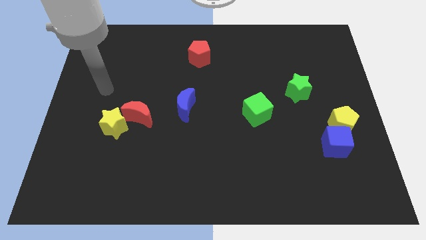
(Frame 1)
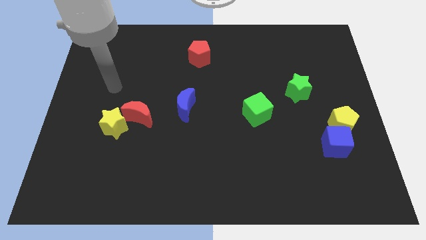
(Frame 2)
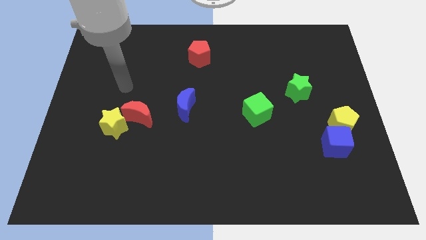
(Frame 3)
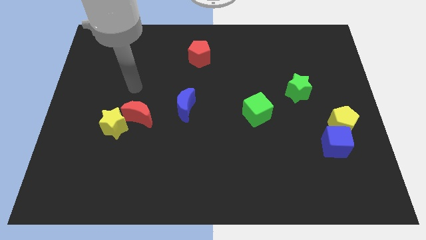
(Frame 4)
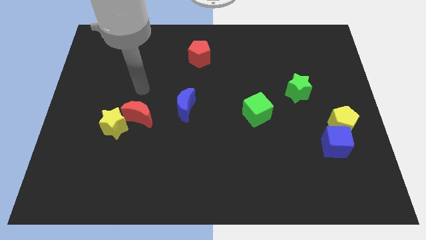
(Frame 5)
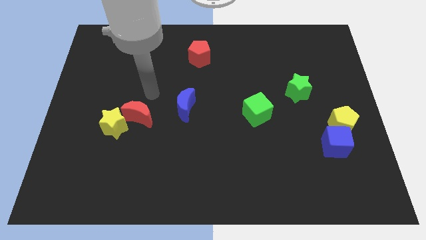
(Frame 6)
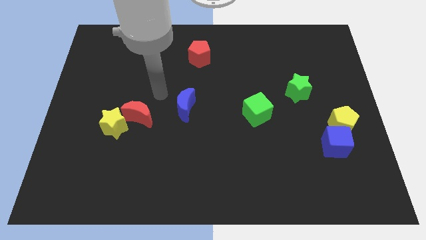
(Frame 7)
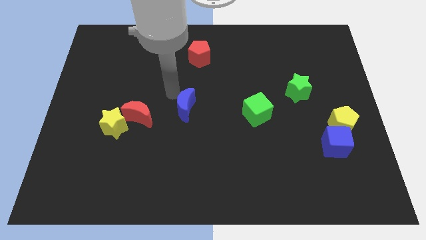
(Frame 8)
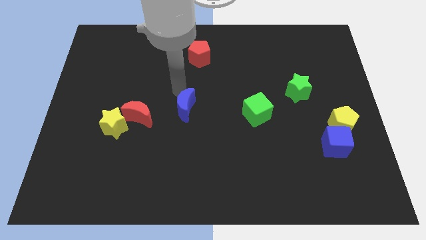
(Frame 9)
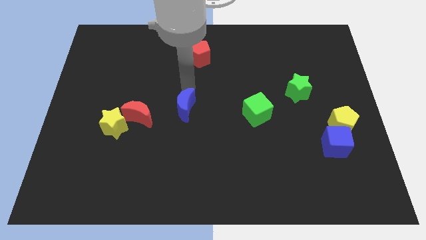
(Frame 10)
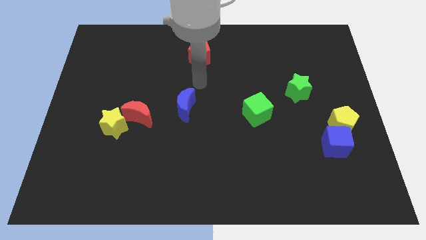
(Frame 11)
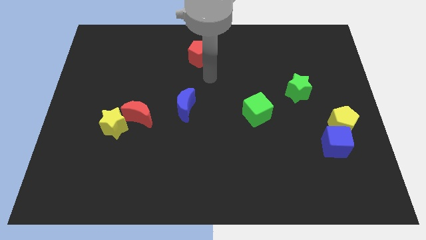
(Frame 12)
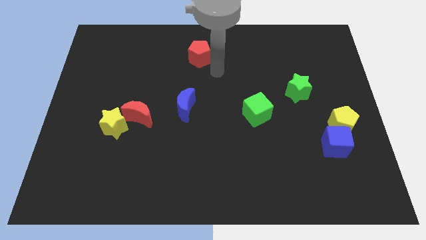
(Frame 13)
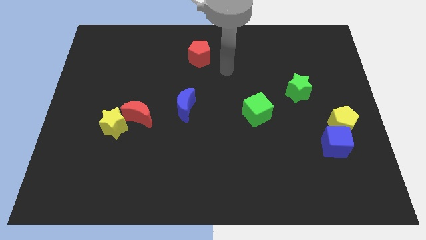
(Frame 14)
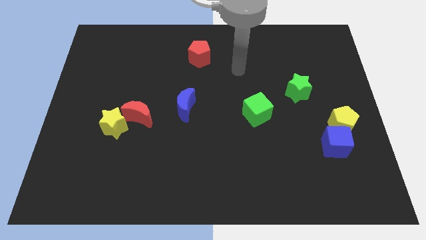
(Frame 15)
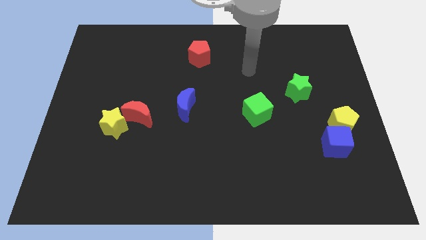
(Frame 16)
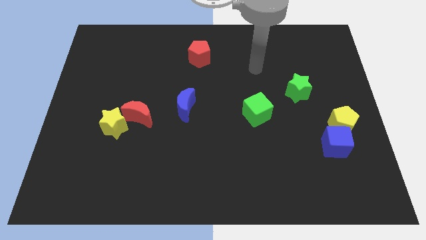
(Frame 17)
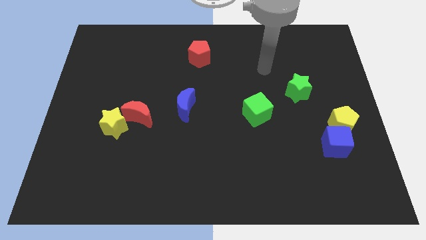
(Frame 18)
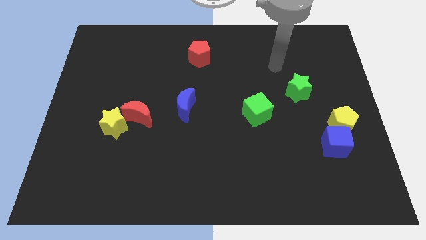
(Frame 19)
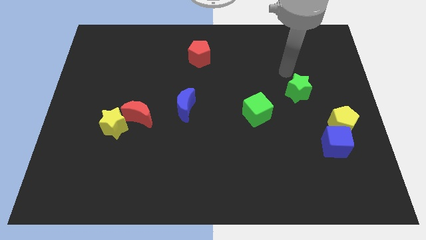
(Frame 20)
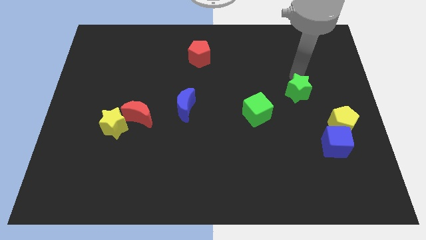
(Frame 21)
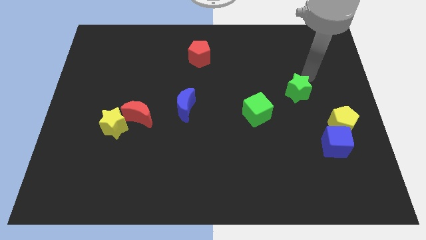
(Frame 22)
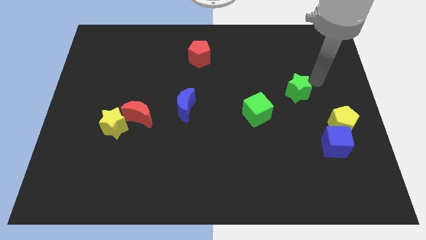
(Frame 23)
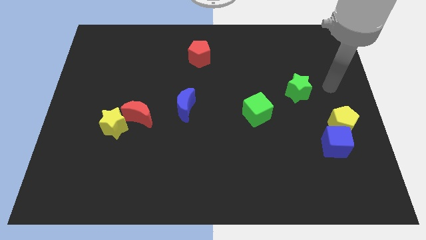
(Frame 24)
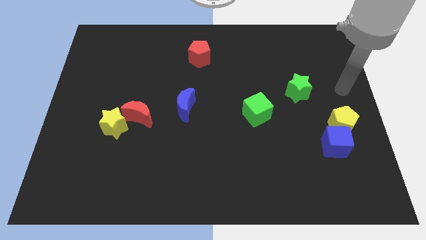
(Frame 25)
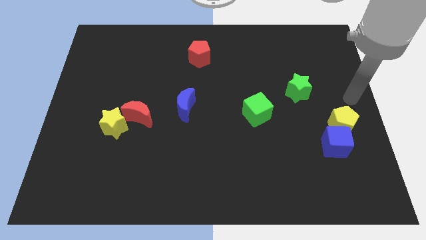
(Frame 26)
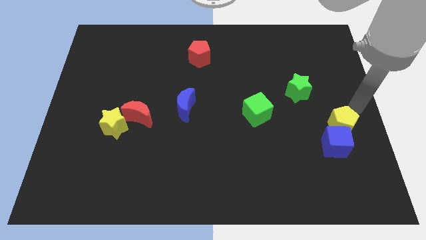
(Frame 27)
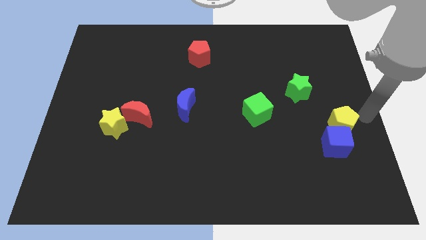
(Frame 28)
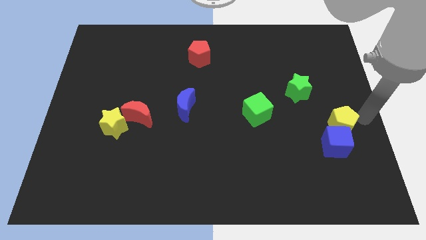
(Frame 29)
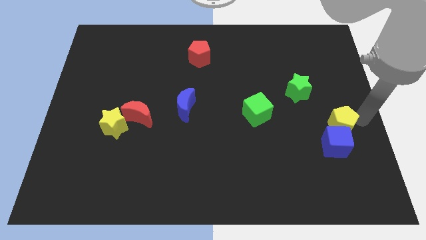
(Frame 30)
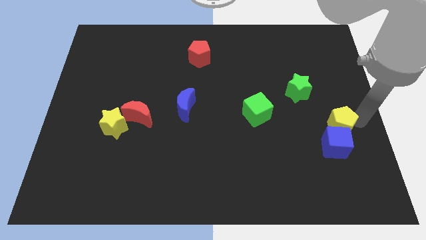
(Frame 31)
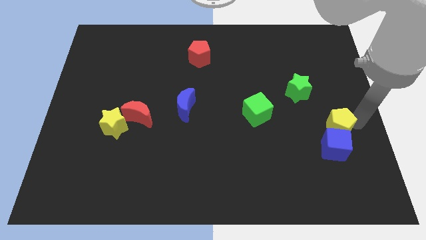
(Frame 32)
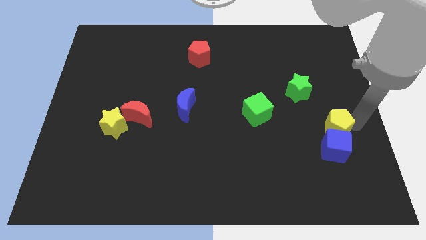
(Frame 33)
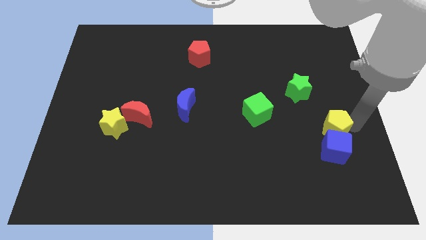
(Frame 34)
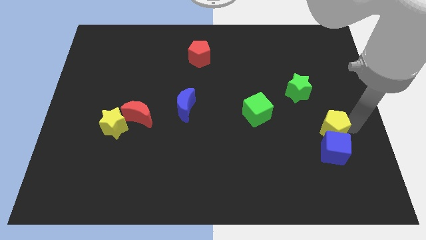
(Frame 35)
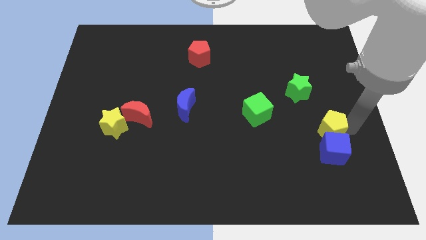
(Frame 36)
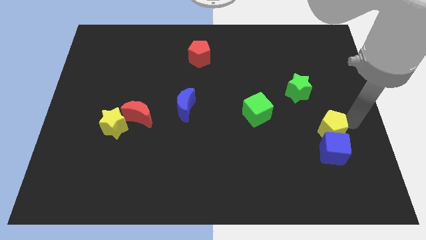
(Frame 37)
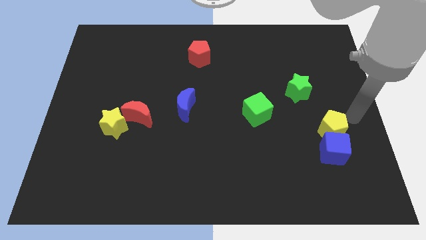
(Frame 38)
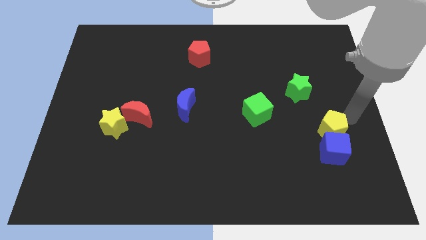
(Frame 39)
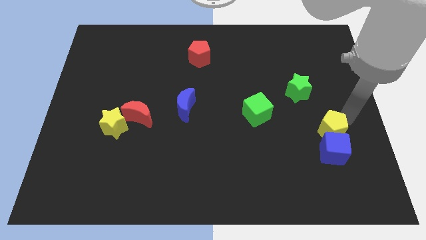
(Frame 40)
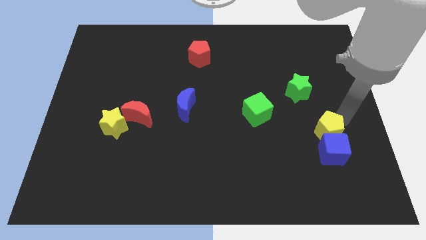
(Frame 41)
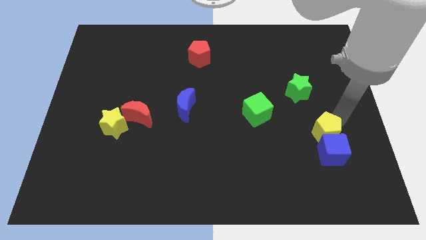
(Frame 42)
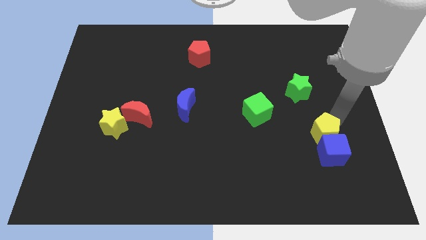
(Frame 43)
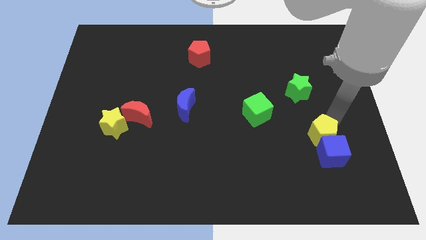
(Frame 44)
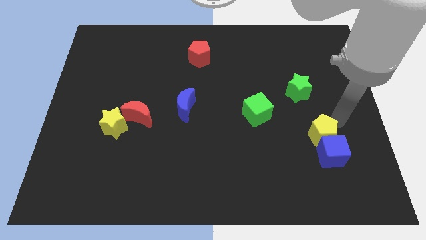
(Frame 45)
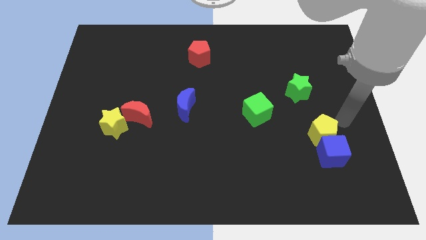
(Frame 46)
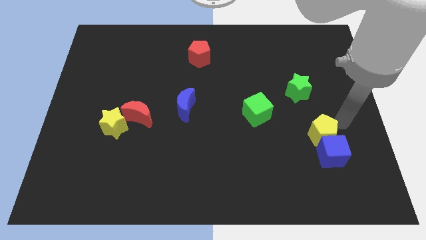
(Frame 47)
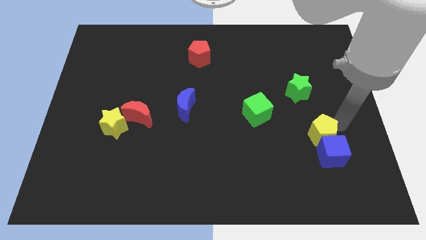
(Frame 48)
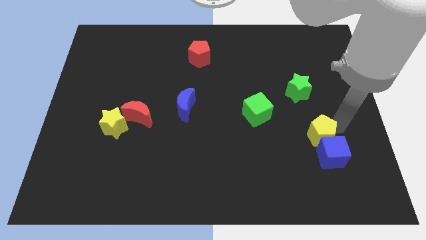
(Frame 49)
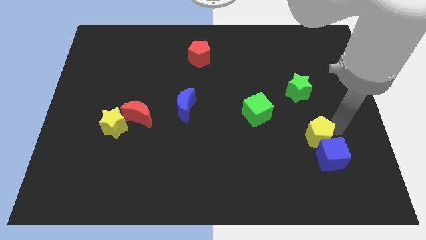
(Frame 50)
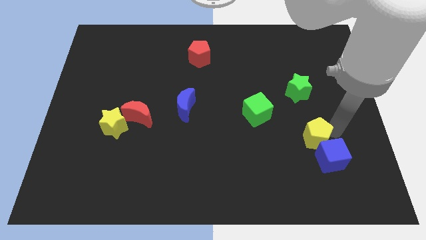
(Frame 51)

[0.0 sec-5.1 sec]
push the yellow pentagon somewhat downwards and then left

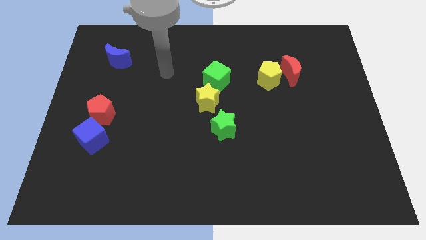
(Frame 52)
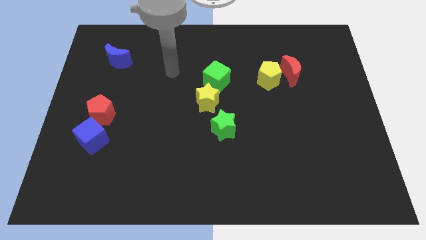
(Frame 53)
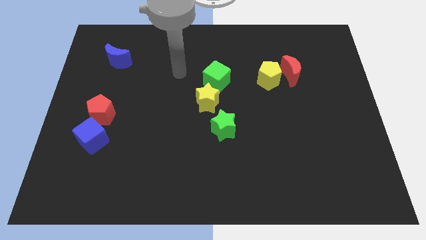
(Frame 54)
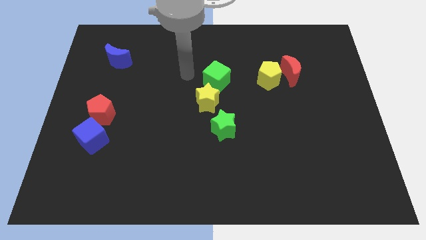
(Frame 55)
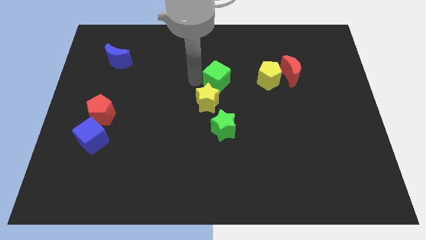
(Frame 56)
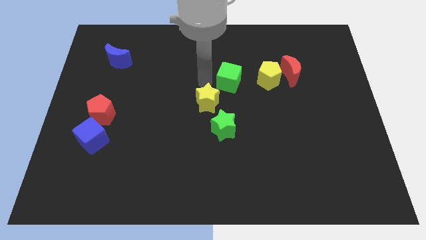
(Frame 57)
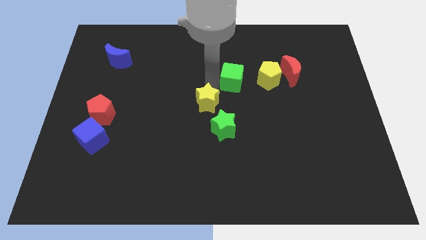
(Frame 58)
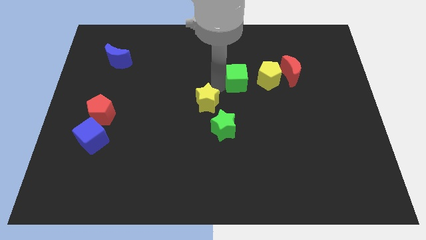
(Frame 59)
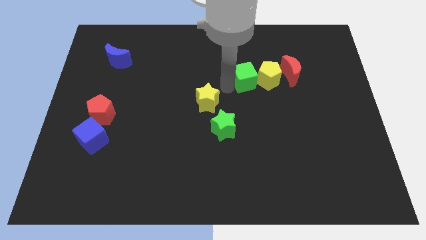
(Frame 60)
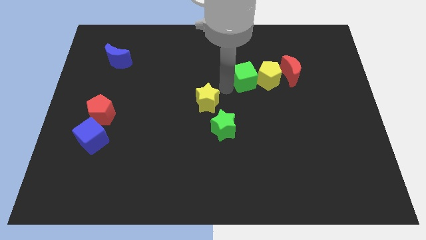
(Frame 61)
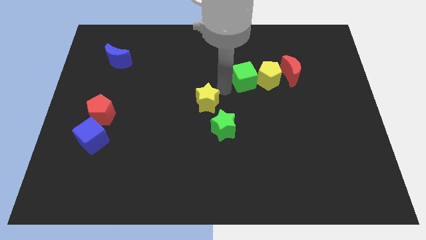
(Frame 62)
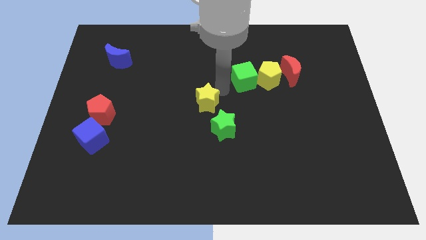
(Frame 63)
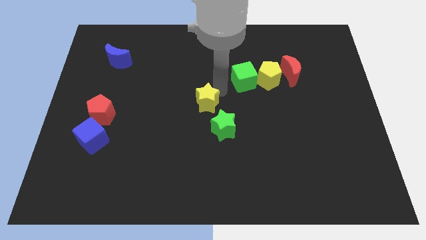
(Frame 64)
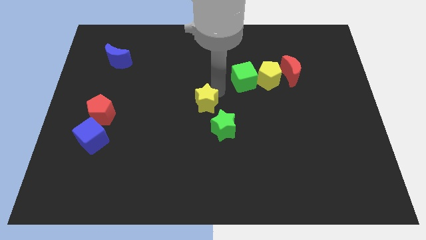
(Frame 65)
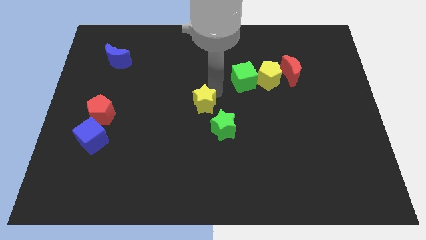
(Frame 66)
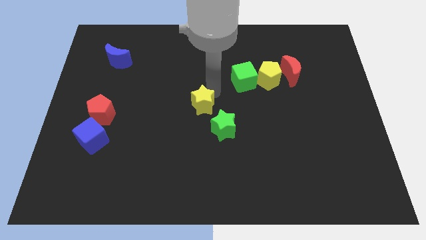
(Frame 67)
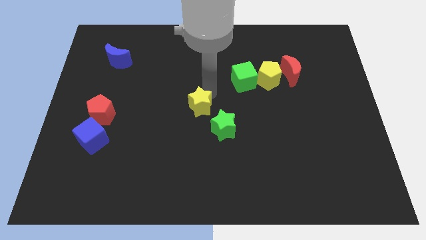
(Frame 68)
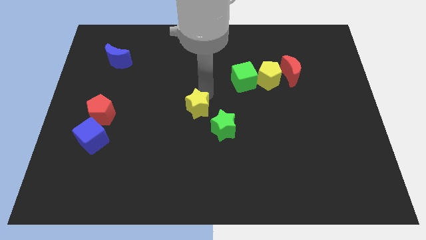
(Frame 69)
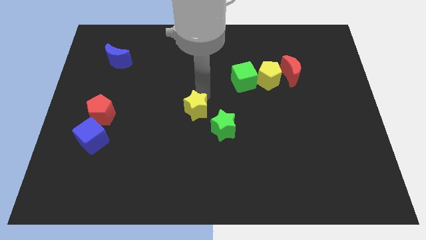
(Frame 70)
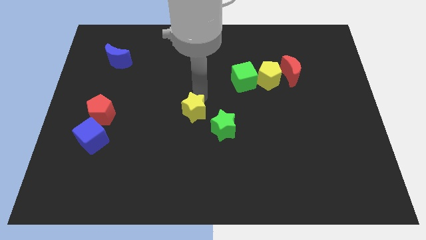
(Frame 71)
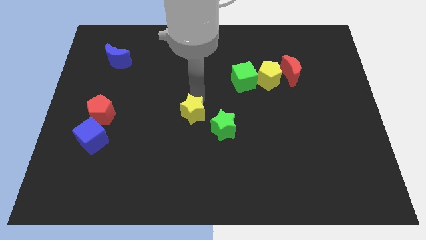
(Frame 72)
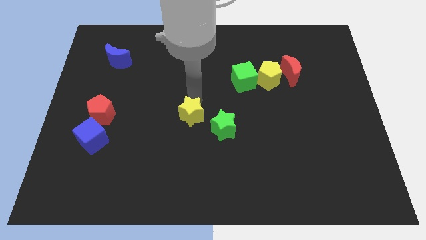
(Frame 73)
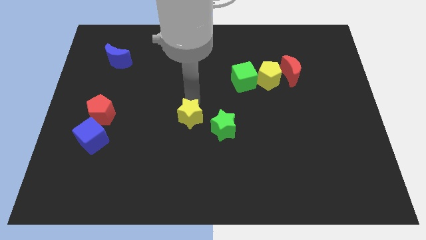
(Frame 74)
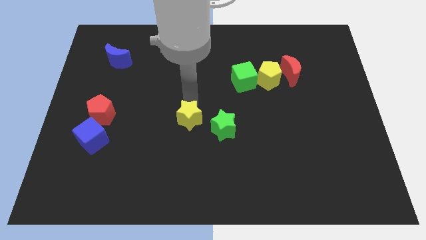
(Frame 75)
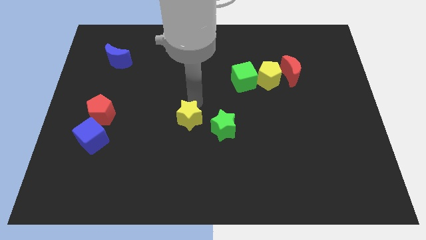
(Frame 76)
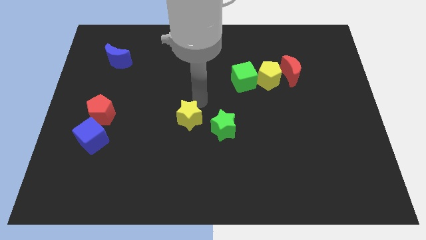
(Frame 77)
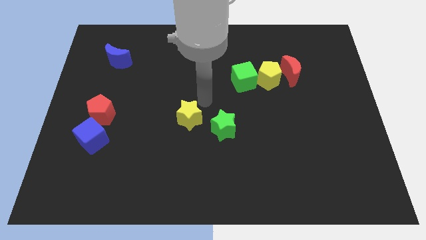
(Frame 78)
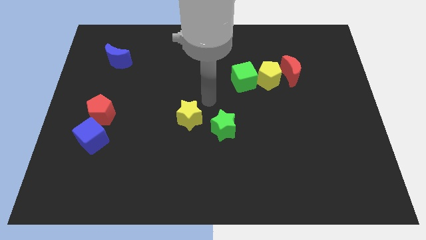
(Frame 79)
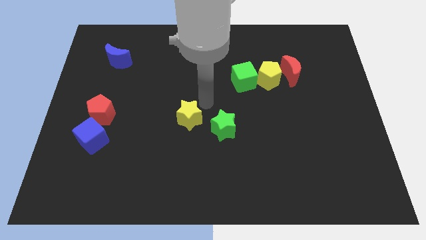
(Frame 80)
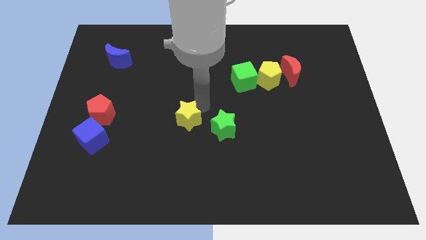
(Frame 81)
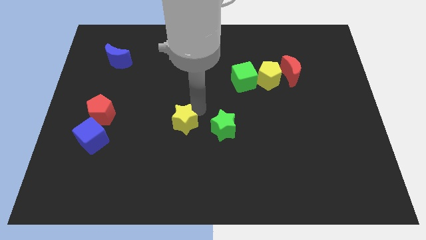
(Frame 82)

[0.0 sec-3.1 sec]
slide the yellow star diagonally down and left somewhat
